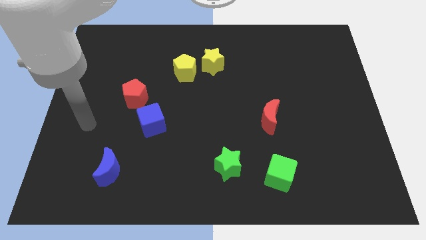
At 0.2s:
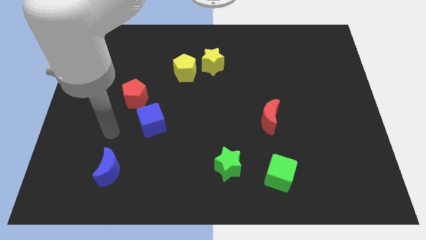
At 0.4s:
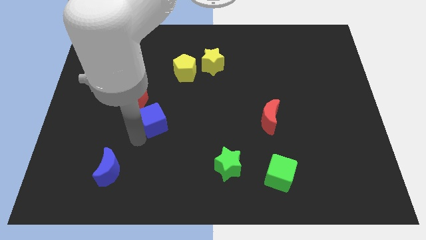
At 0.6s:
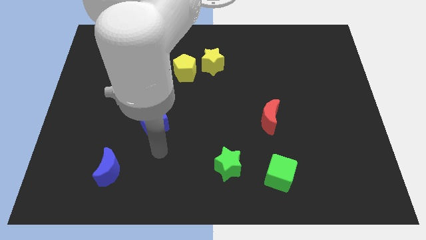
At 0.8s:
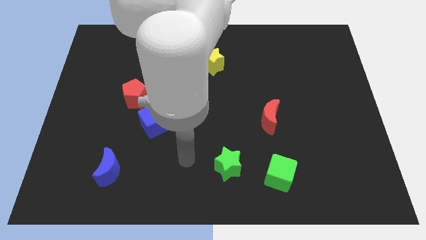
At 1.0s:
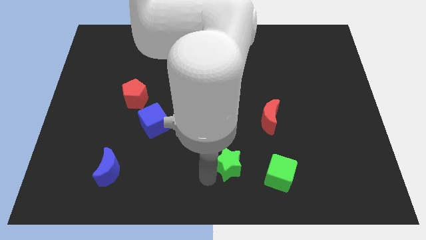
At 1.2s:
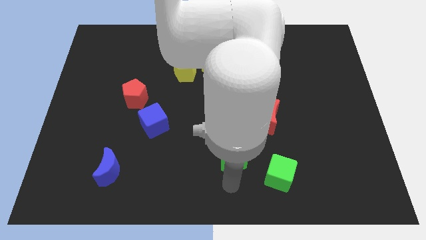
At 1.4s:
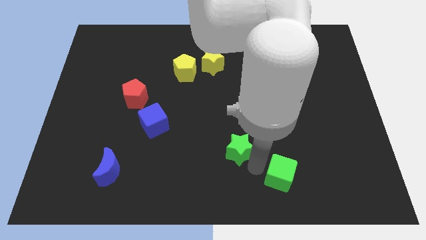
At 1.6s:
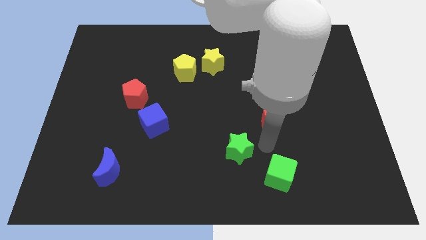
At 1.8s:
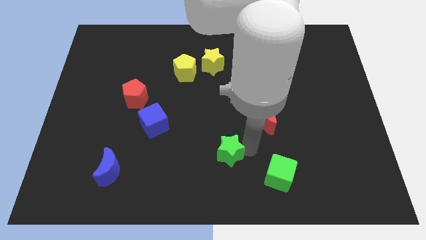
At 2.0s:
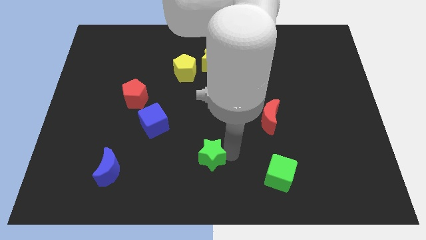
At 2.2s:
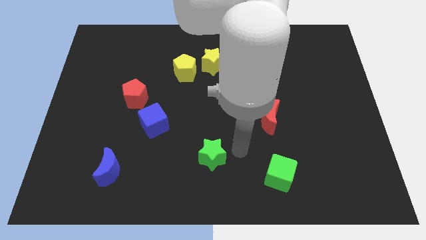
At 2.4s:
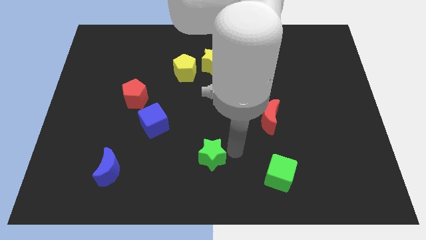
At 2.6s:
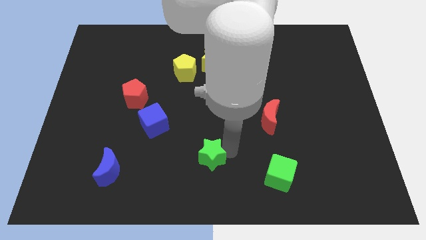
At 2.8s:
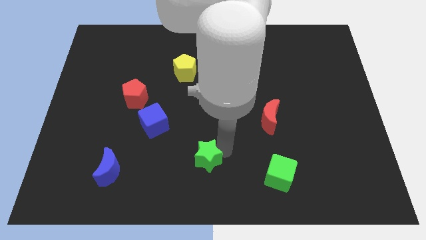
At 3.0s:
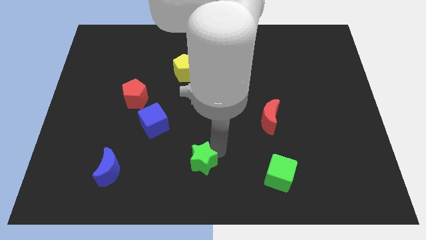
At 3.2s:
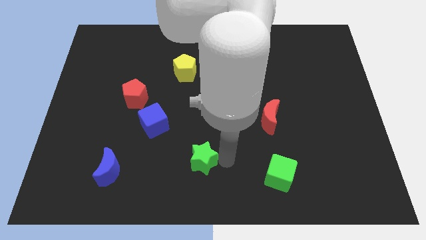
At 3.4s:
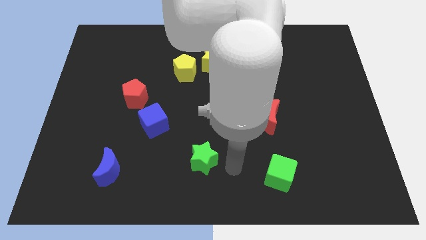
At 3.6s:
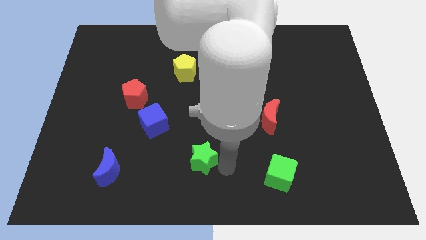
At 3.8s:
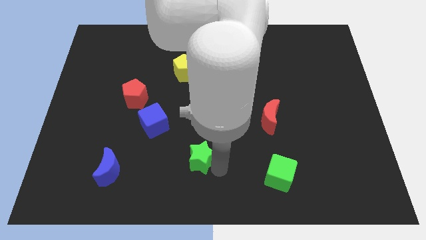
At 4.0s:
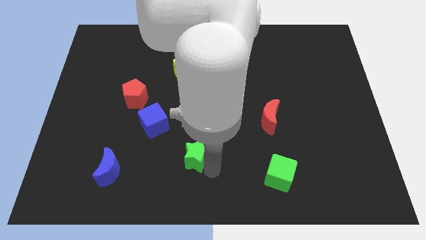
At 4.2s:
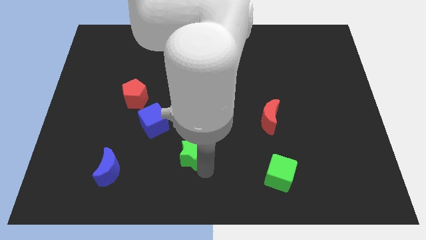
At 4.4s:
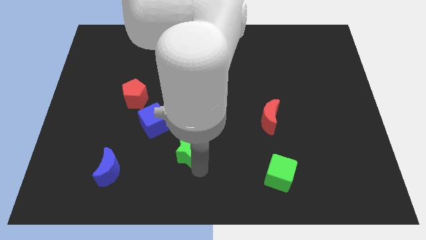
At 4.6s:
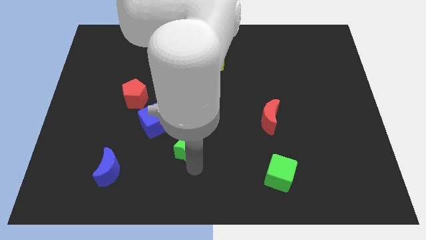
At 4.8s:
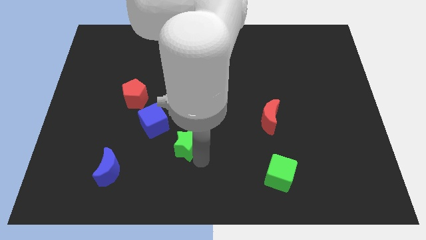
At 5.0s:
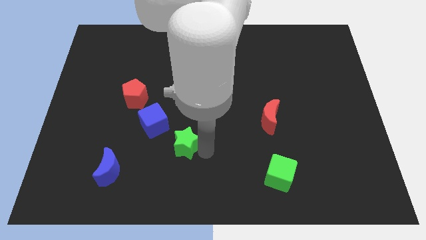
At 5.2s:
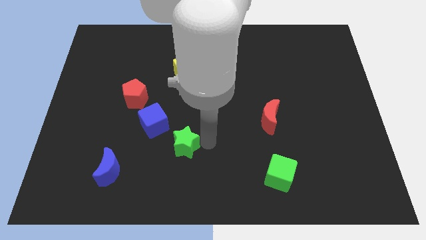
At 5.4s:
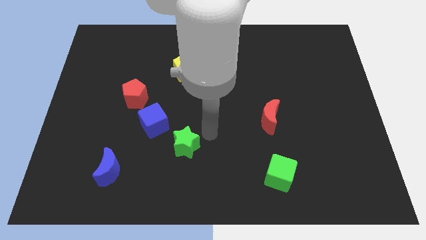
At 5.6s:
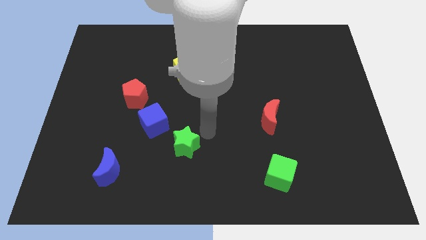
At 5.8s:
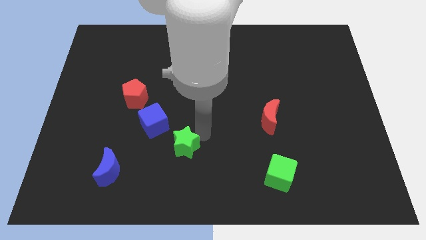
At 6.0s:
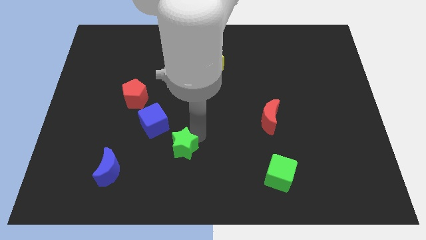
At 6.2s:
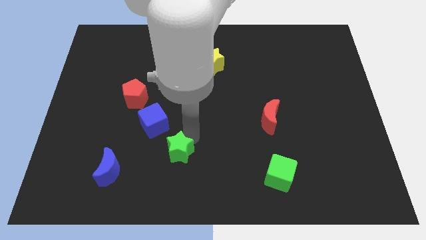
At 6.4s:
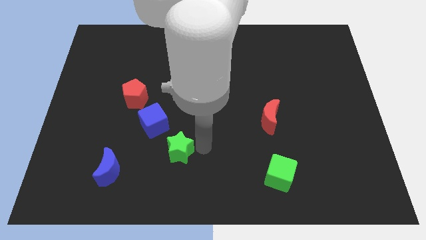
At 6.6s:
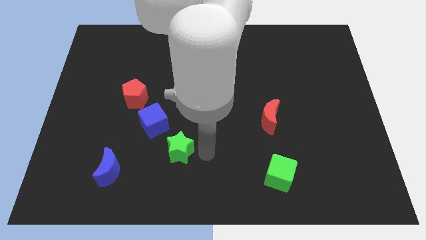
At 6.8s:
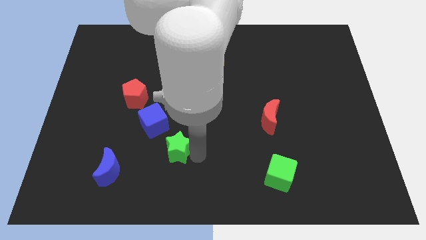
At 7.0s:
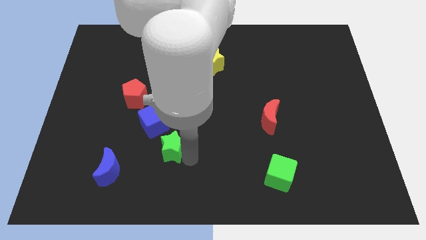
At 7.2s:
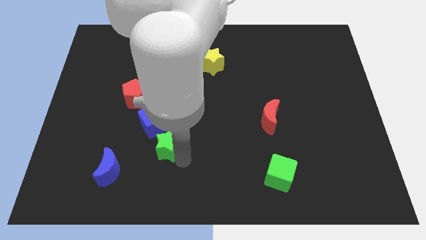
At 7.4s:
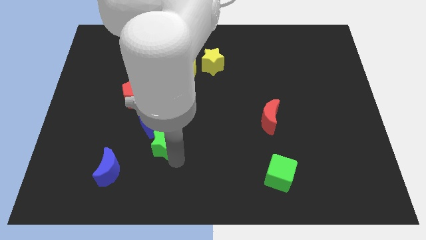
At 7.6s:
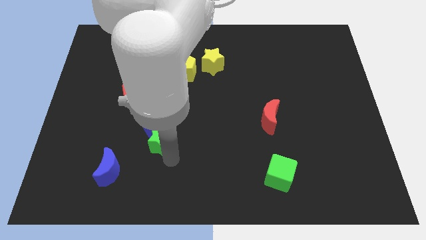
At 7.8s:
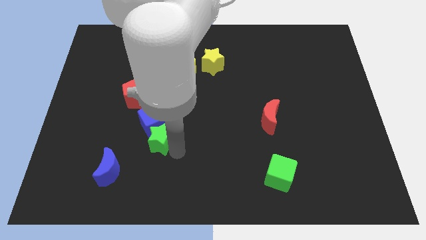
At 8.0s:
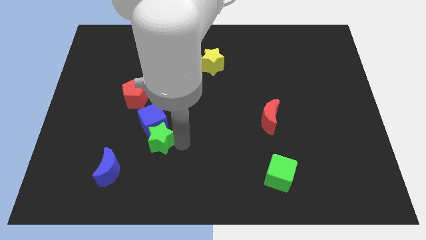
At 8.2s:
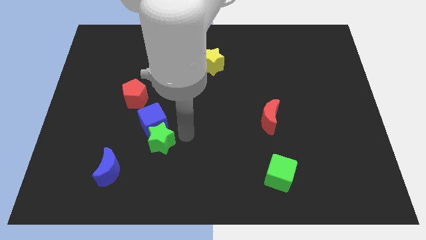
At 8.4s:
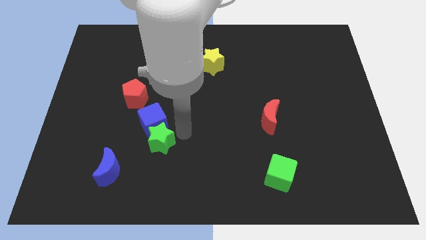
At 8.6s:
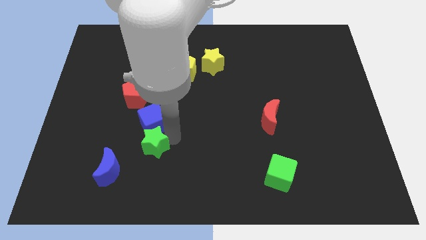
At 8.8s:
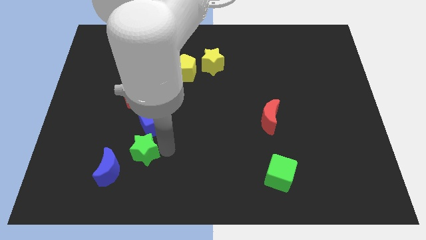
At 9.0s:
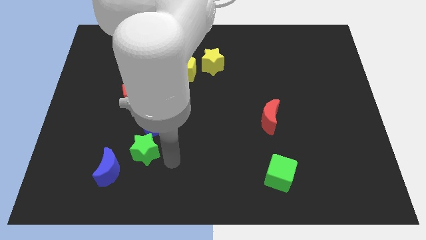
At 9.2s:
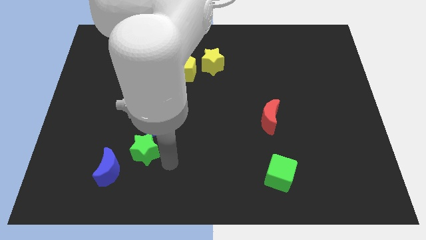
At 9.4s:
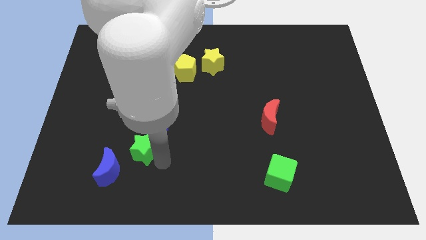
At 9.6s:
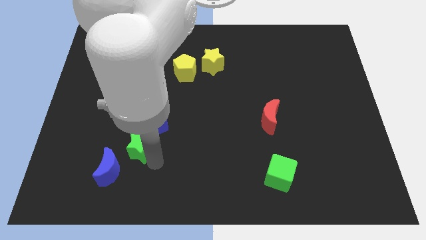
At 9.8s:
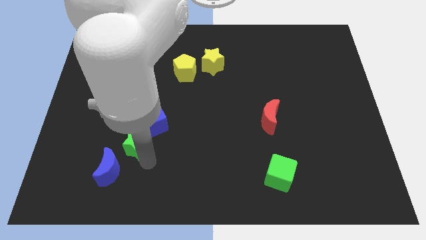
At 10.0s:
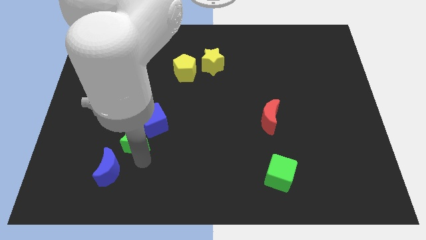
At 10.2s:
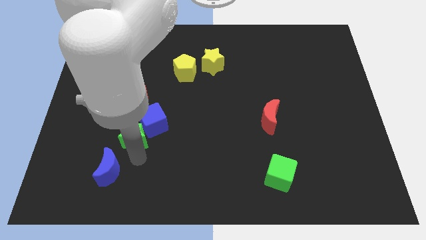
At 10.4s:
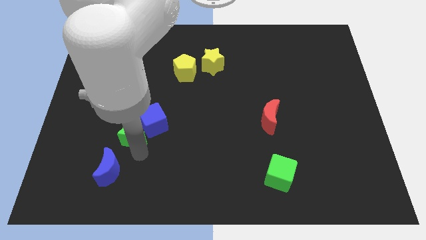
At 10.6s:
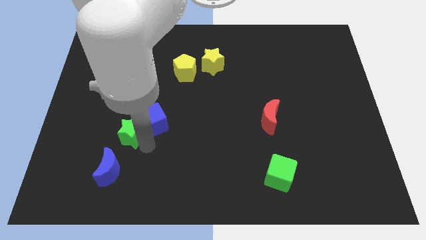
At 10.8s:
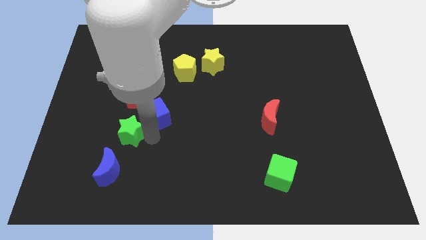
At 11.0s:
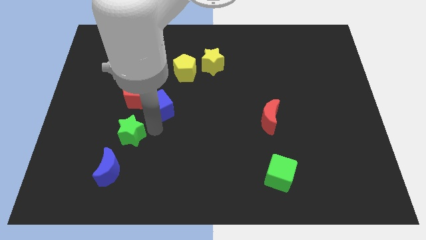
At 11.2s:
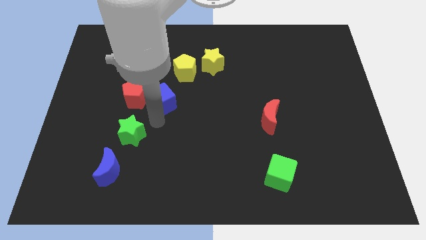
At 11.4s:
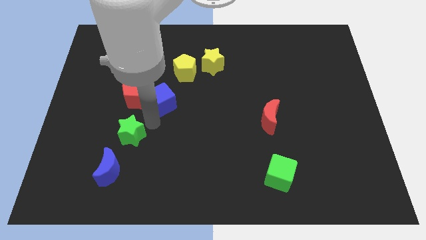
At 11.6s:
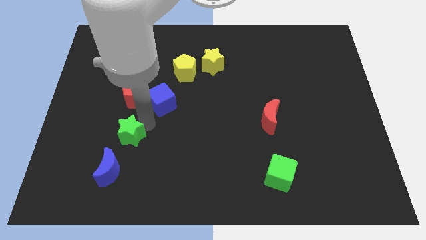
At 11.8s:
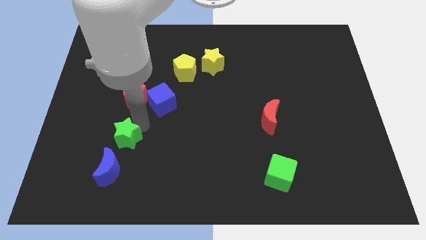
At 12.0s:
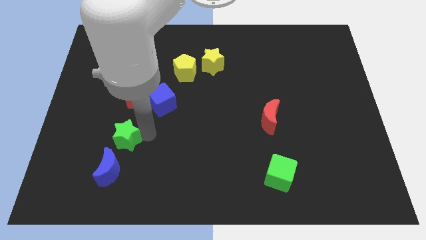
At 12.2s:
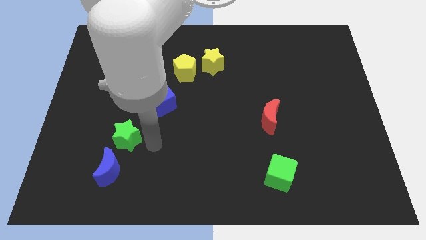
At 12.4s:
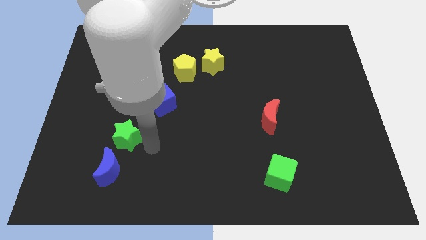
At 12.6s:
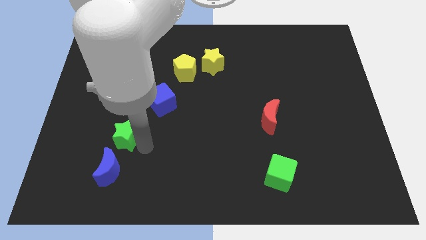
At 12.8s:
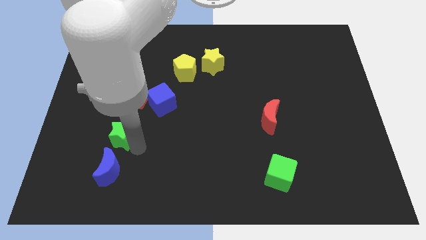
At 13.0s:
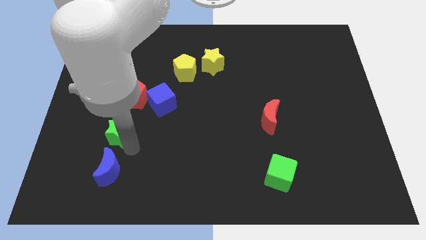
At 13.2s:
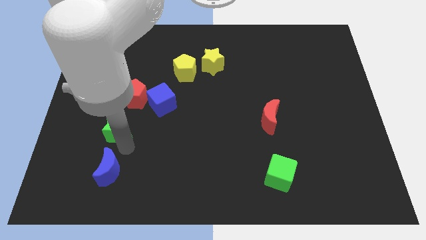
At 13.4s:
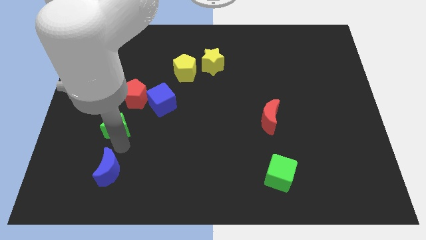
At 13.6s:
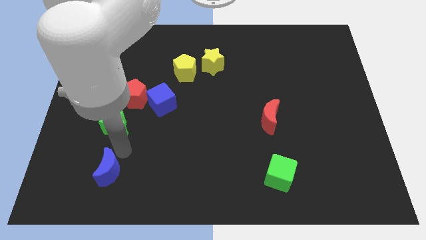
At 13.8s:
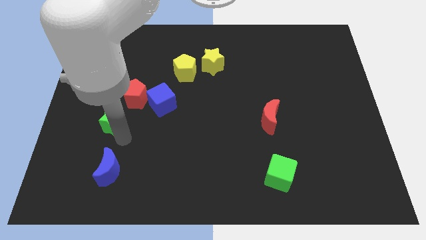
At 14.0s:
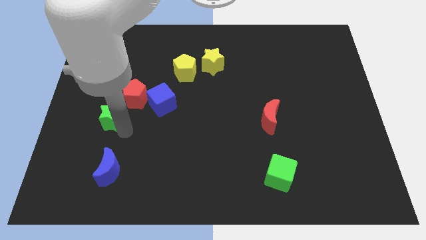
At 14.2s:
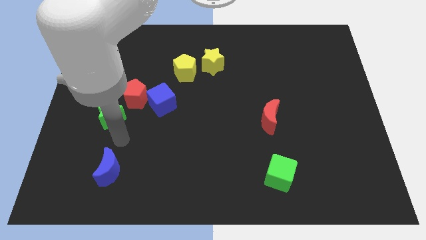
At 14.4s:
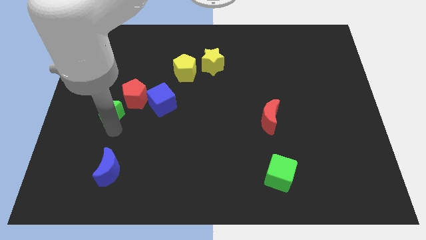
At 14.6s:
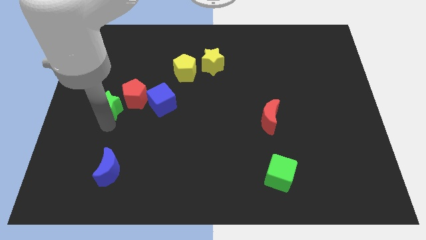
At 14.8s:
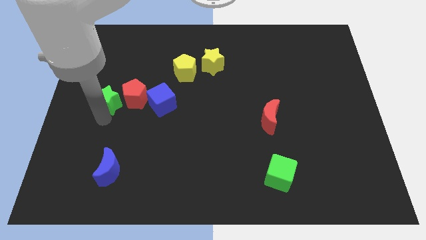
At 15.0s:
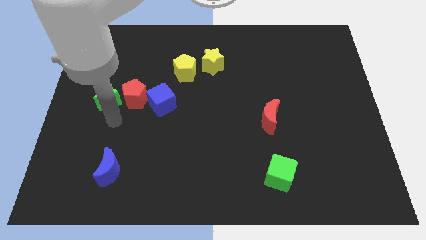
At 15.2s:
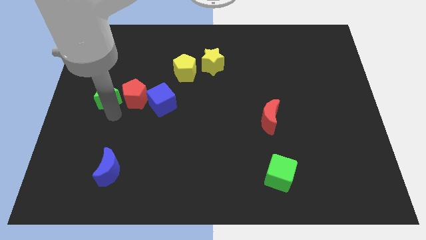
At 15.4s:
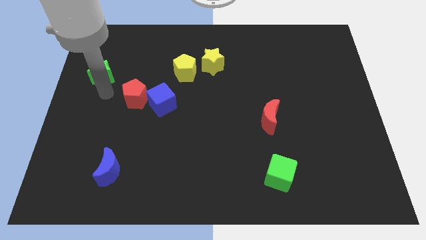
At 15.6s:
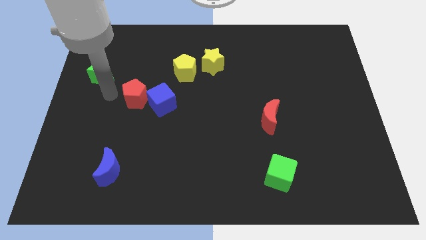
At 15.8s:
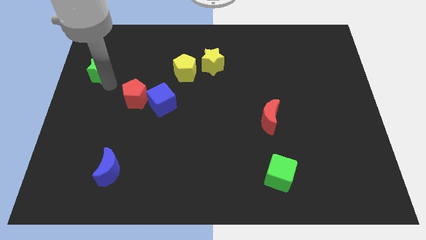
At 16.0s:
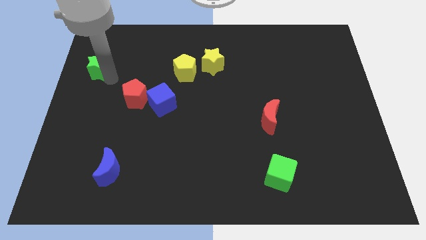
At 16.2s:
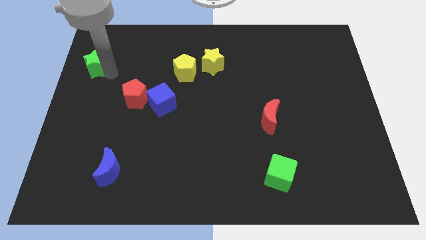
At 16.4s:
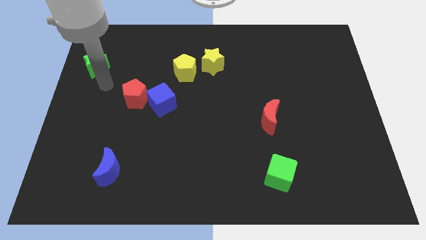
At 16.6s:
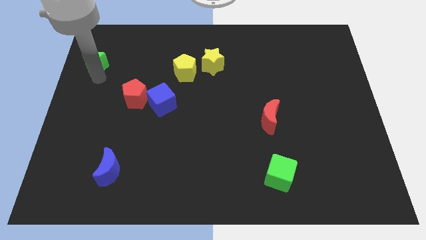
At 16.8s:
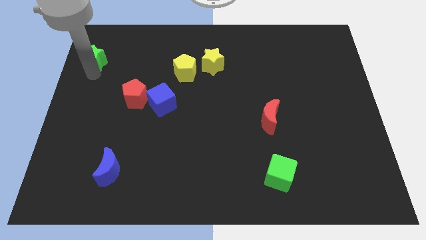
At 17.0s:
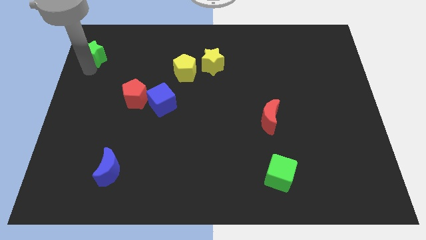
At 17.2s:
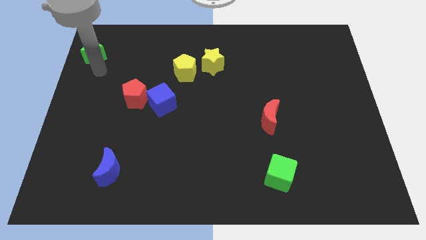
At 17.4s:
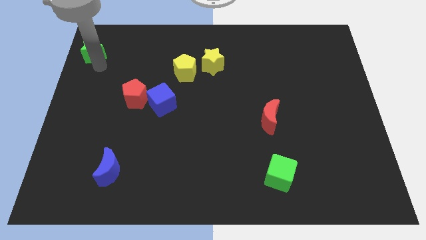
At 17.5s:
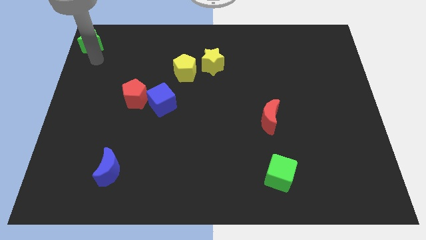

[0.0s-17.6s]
push the green star to the top left of the board
